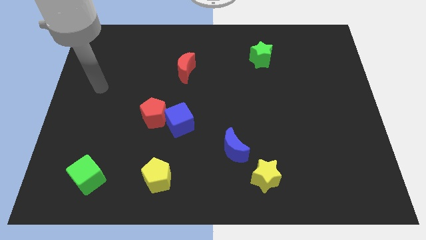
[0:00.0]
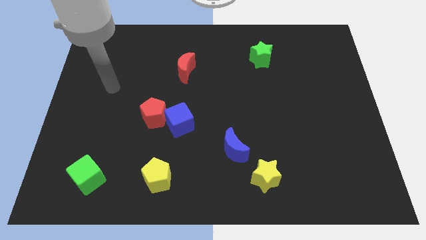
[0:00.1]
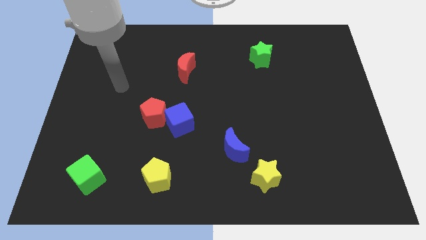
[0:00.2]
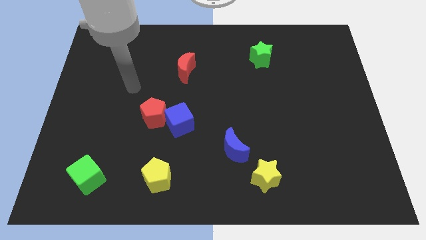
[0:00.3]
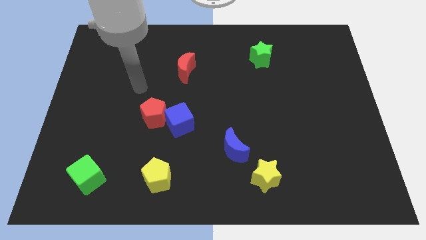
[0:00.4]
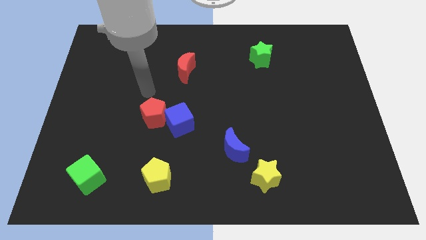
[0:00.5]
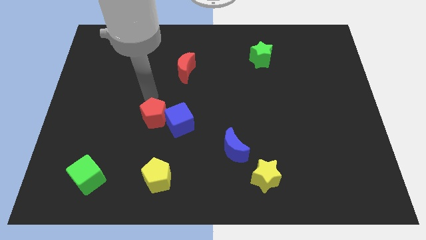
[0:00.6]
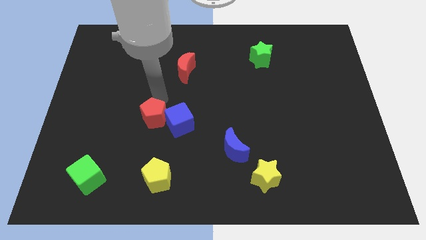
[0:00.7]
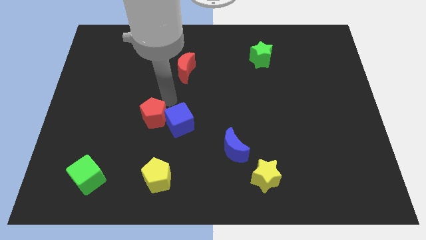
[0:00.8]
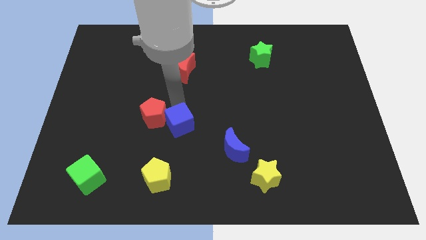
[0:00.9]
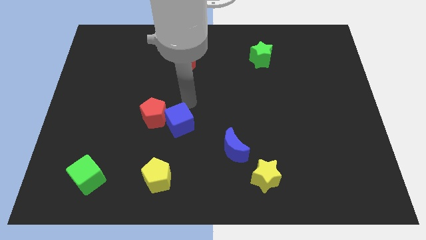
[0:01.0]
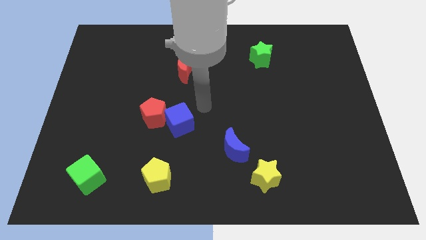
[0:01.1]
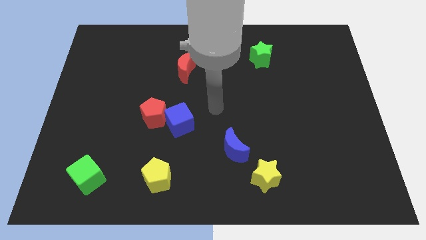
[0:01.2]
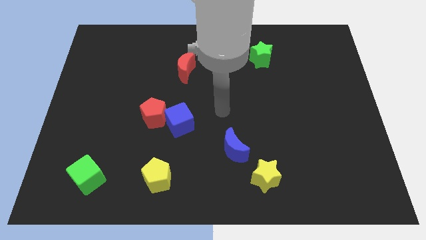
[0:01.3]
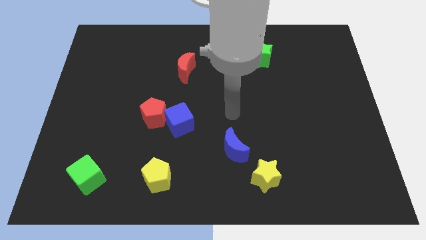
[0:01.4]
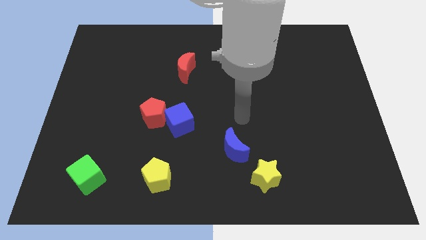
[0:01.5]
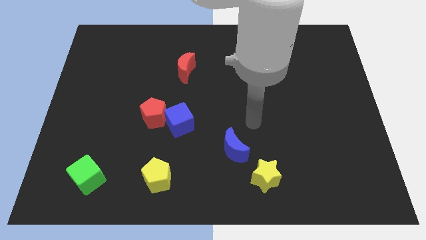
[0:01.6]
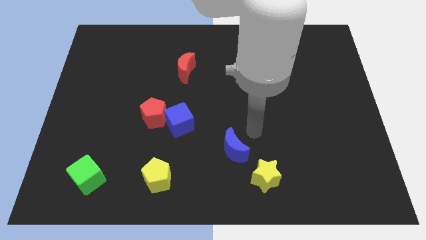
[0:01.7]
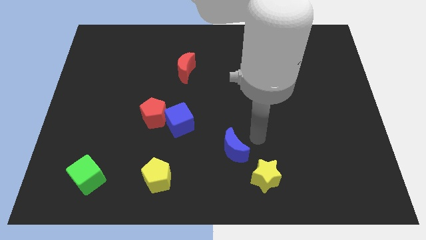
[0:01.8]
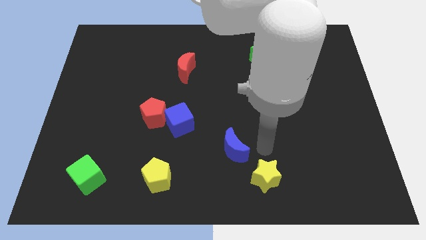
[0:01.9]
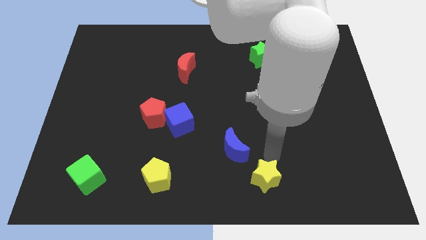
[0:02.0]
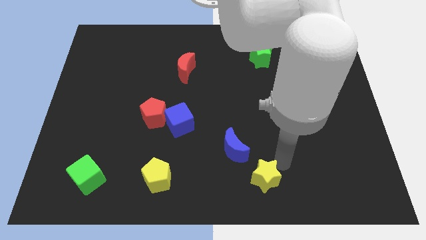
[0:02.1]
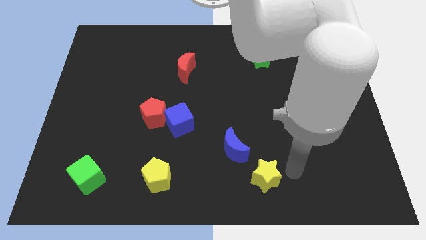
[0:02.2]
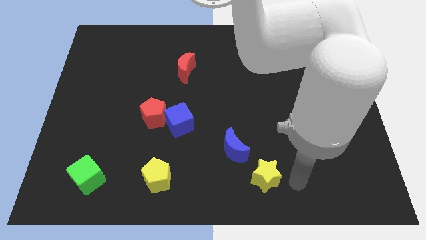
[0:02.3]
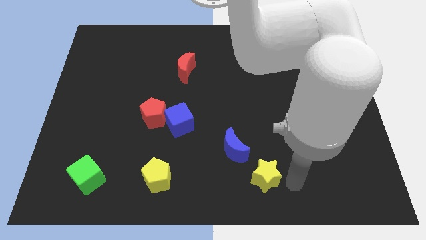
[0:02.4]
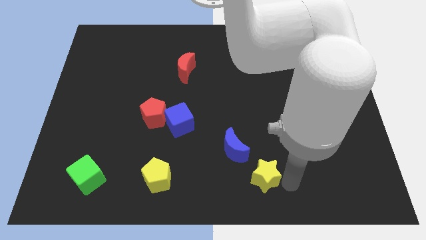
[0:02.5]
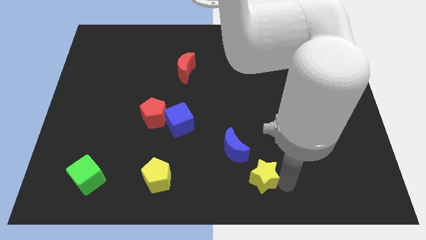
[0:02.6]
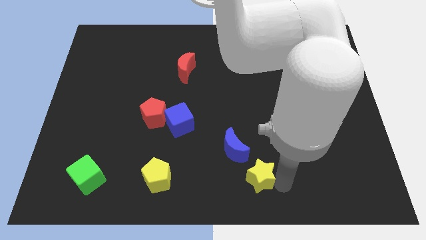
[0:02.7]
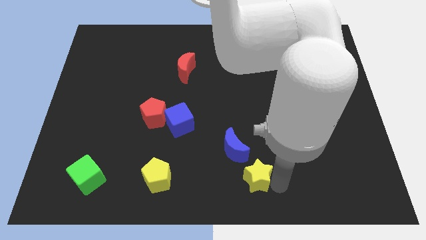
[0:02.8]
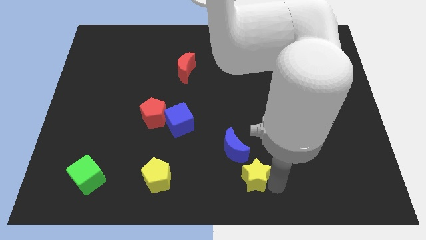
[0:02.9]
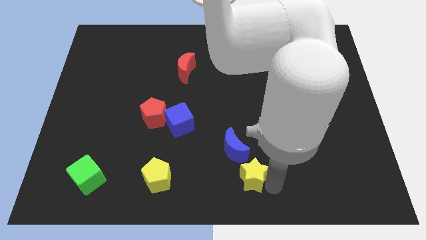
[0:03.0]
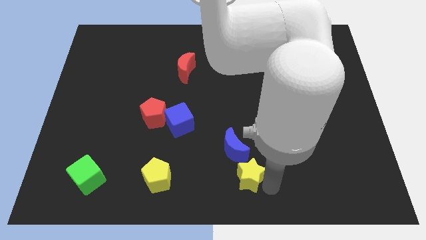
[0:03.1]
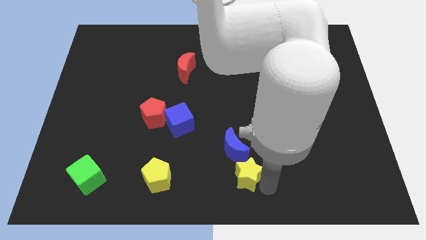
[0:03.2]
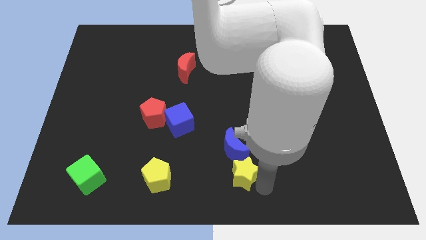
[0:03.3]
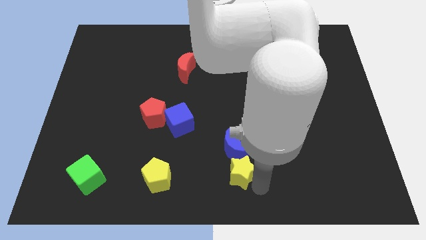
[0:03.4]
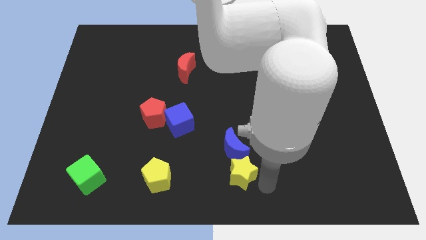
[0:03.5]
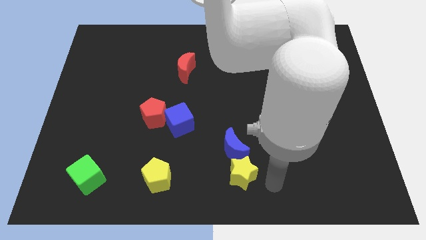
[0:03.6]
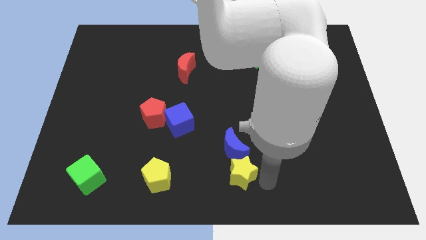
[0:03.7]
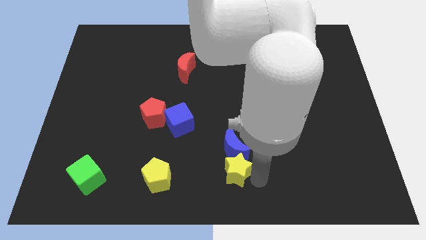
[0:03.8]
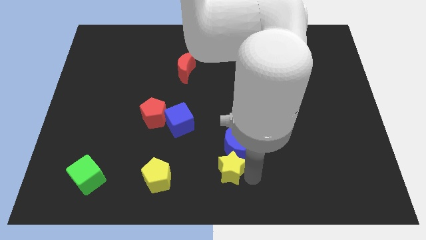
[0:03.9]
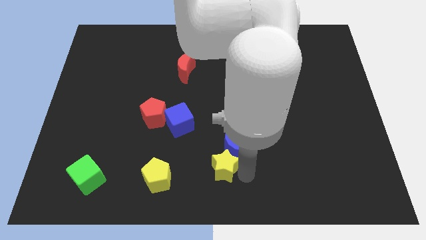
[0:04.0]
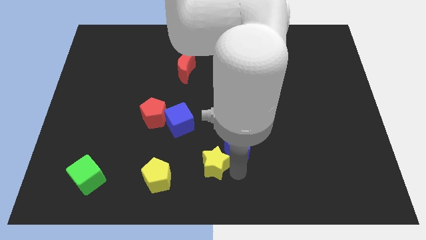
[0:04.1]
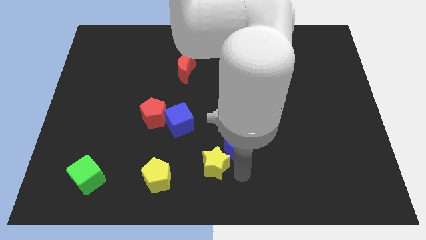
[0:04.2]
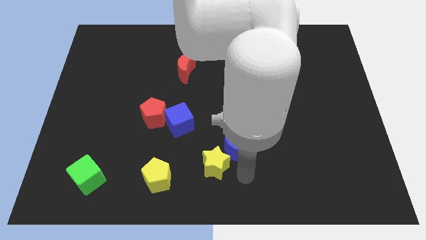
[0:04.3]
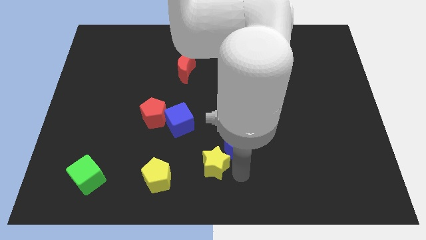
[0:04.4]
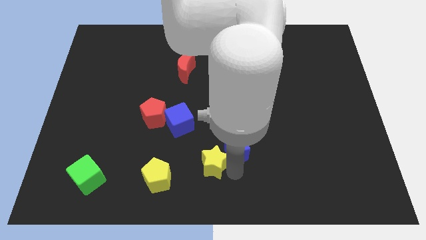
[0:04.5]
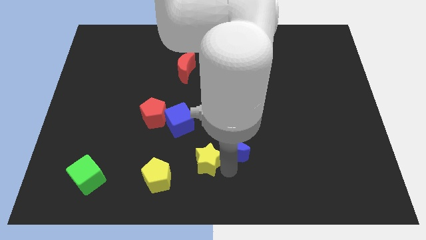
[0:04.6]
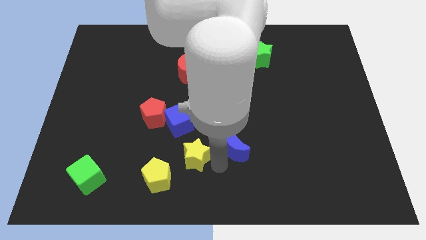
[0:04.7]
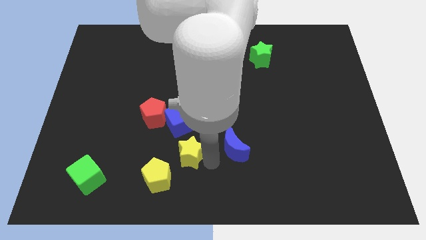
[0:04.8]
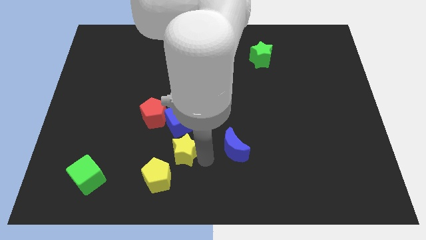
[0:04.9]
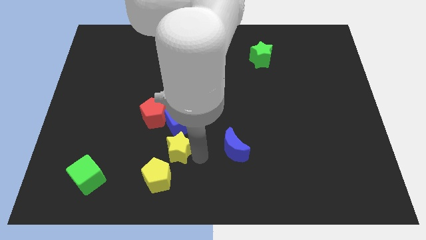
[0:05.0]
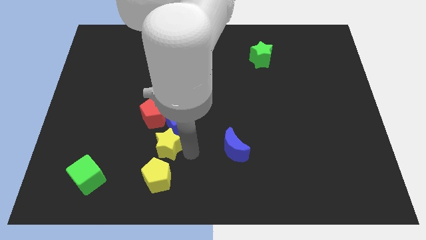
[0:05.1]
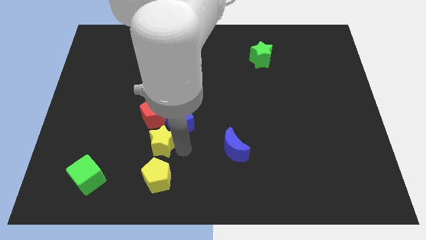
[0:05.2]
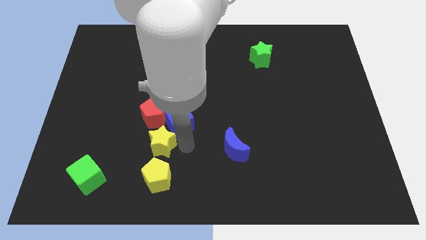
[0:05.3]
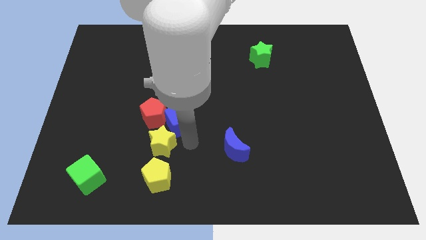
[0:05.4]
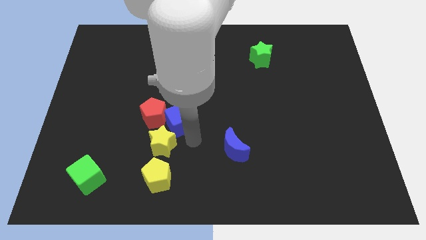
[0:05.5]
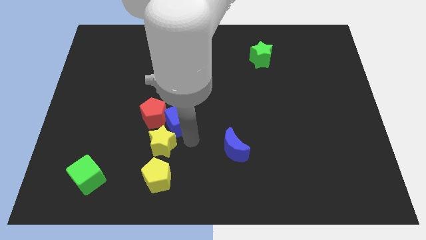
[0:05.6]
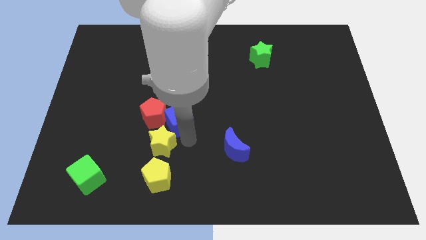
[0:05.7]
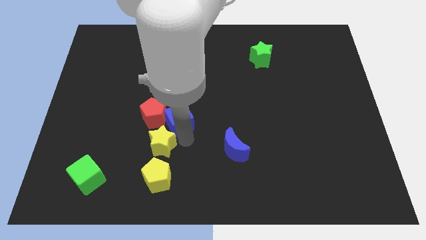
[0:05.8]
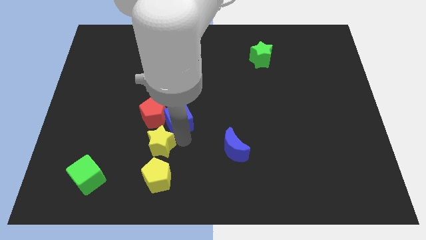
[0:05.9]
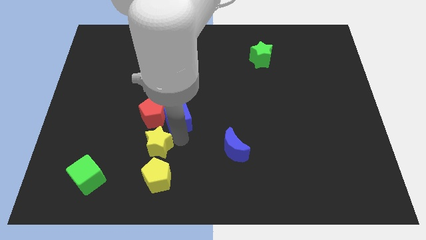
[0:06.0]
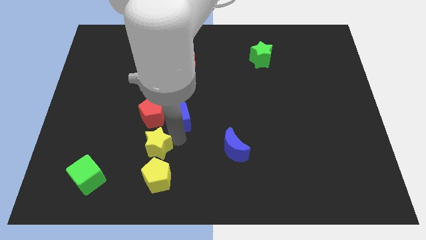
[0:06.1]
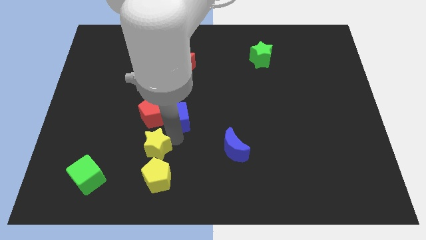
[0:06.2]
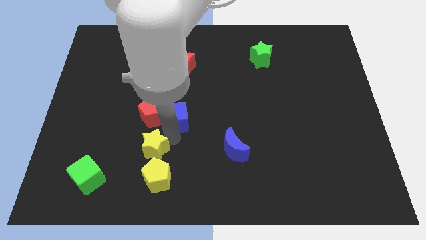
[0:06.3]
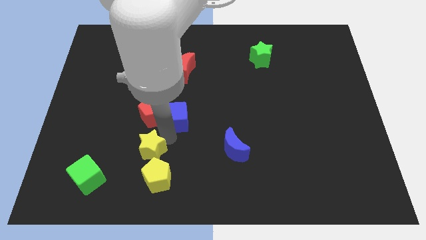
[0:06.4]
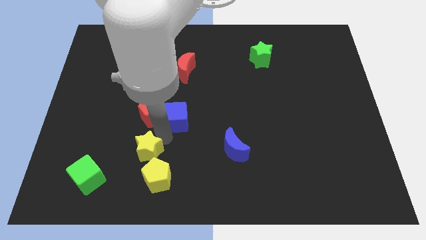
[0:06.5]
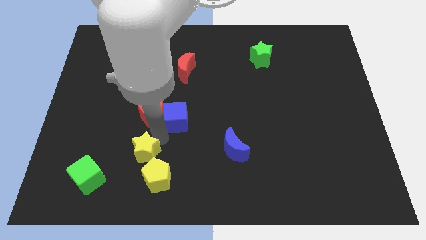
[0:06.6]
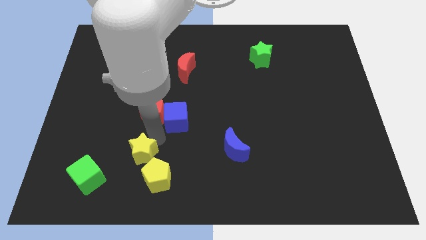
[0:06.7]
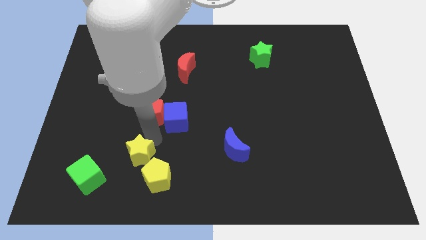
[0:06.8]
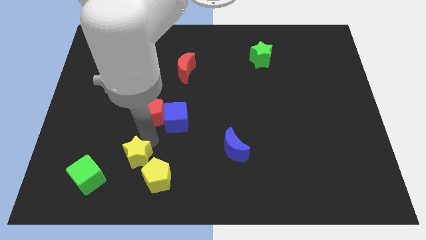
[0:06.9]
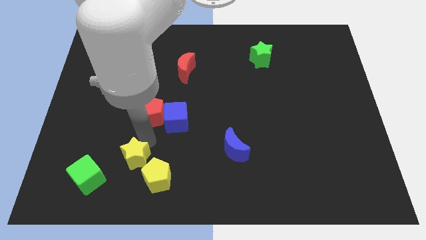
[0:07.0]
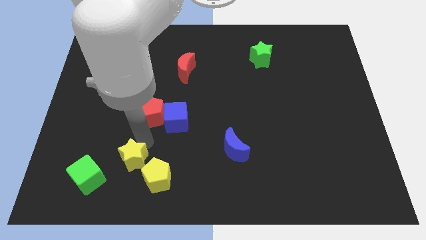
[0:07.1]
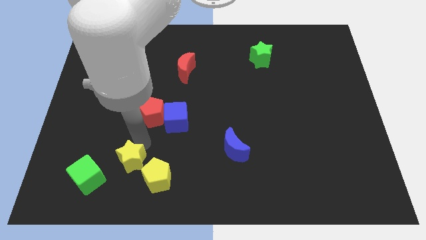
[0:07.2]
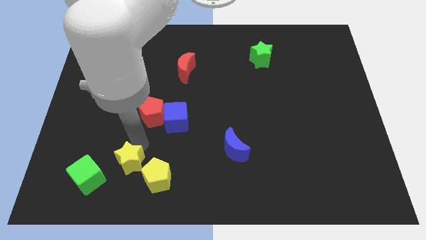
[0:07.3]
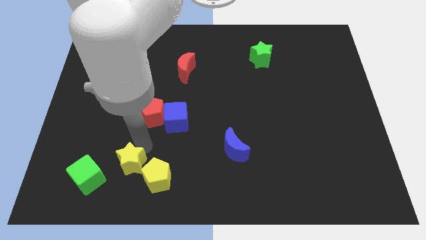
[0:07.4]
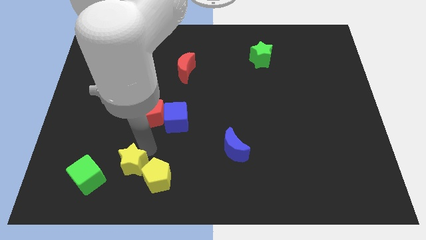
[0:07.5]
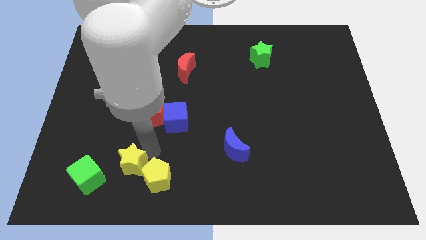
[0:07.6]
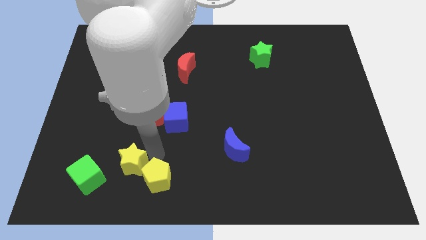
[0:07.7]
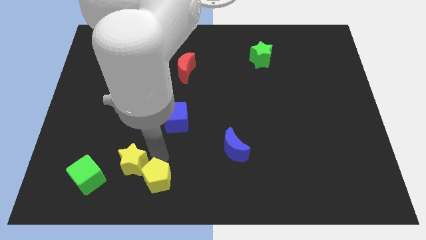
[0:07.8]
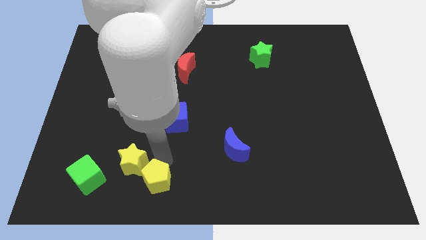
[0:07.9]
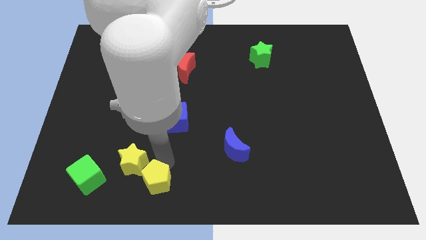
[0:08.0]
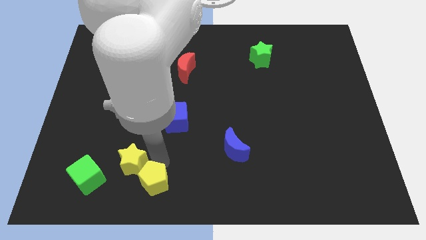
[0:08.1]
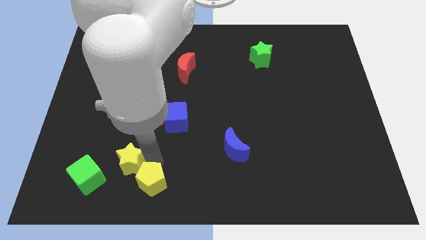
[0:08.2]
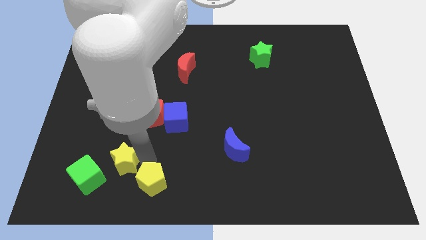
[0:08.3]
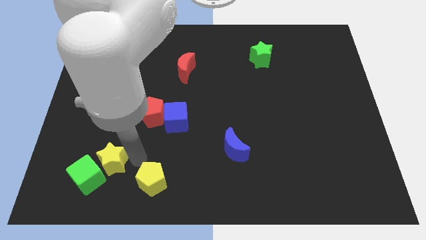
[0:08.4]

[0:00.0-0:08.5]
move the yellow star close to the green cube
